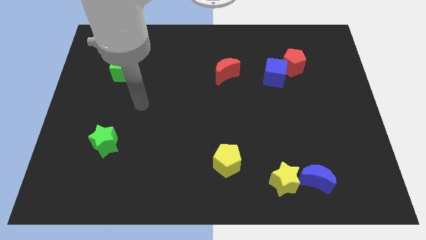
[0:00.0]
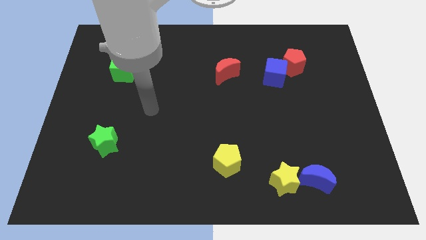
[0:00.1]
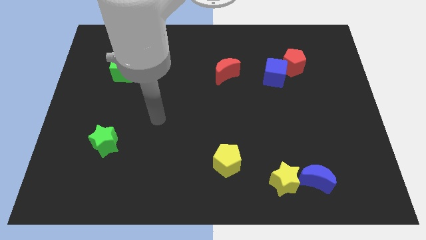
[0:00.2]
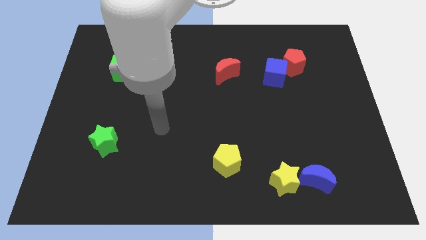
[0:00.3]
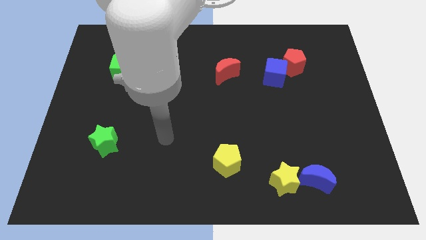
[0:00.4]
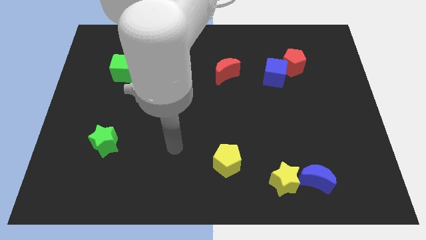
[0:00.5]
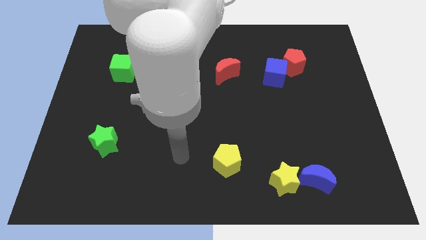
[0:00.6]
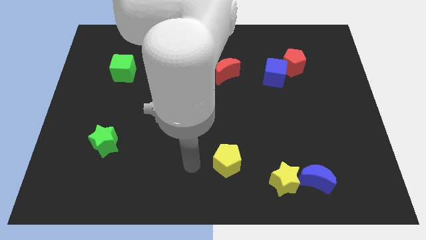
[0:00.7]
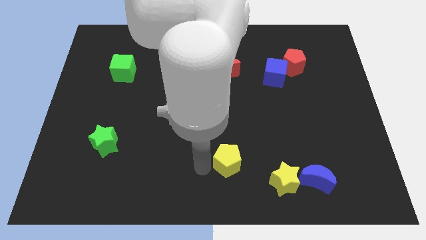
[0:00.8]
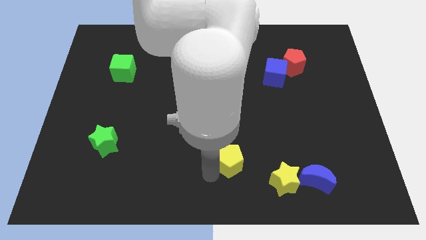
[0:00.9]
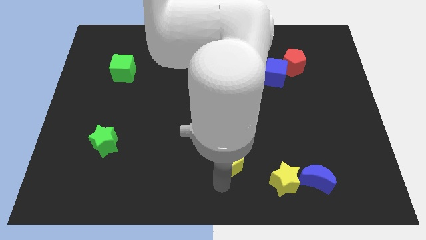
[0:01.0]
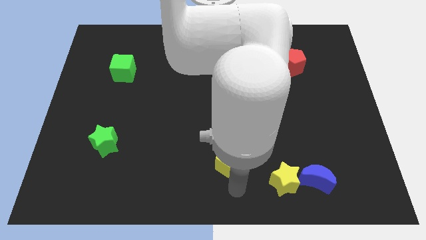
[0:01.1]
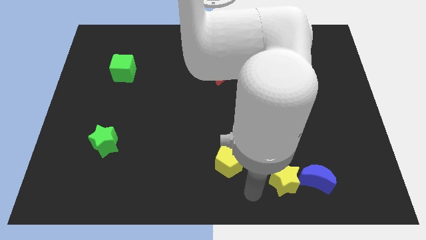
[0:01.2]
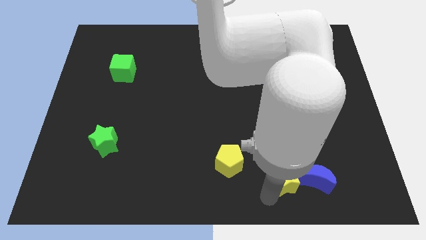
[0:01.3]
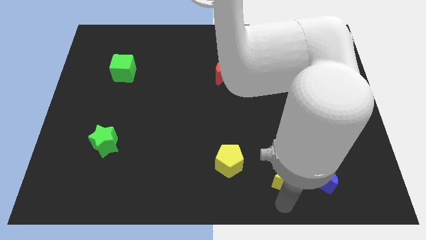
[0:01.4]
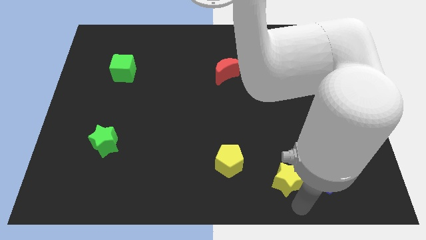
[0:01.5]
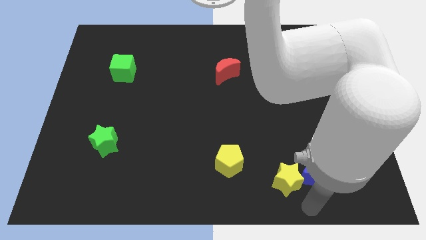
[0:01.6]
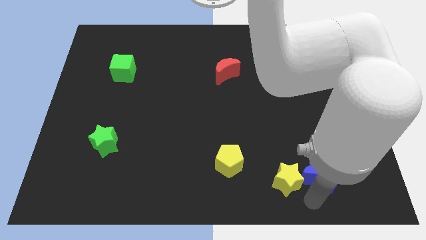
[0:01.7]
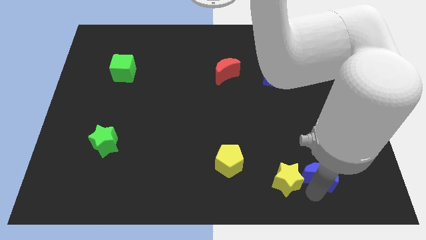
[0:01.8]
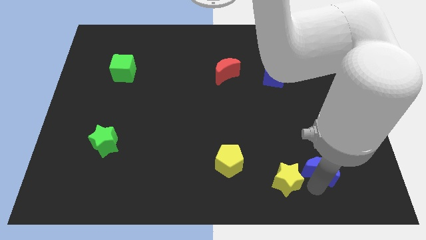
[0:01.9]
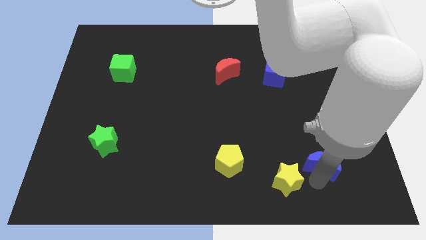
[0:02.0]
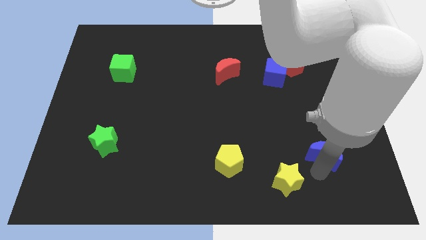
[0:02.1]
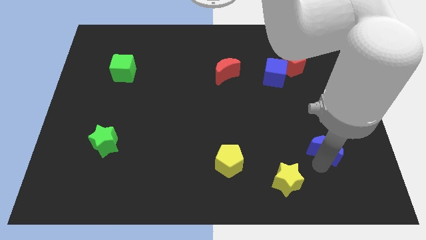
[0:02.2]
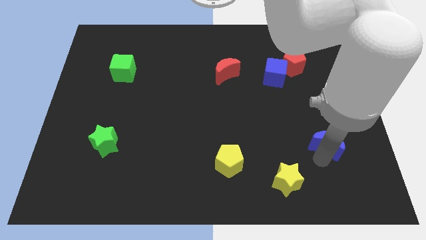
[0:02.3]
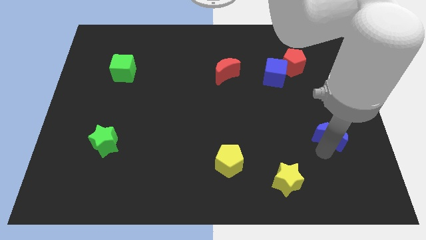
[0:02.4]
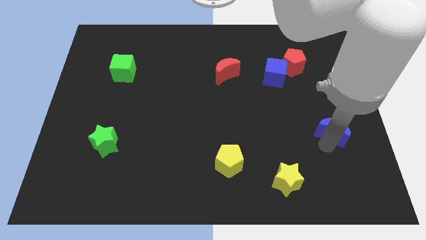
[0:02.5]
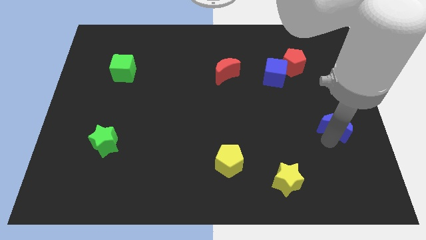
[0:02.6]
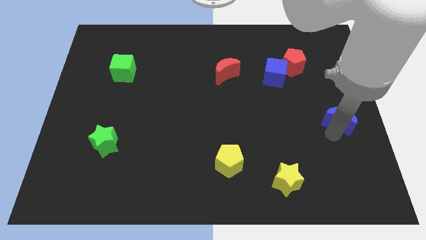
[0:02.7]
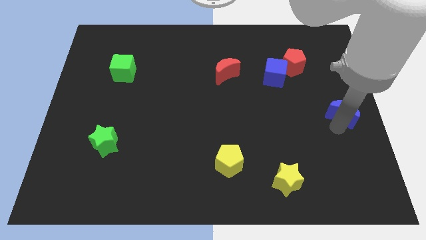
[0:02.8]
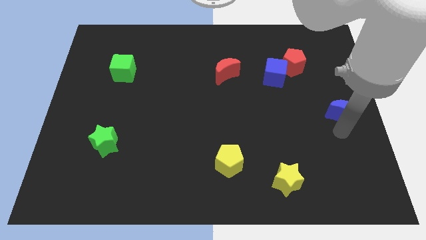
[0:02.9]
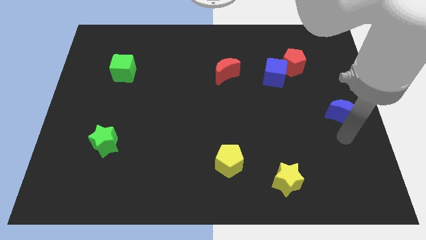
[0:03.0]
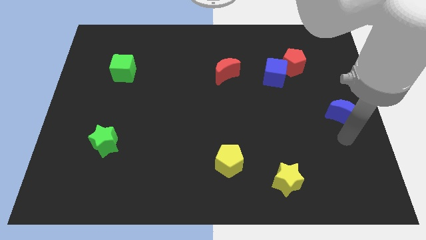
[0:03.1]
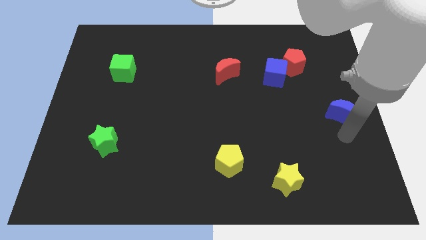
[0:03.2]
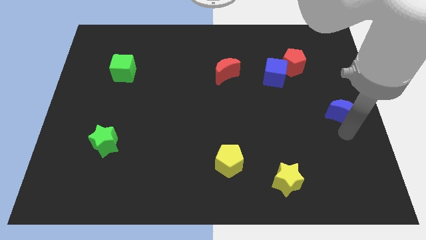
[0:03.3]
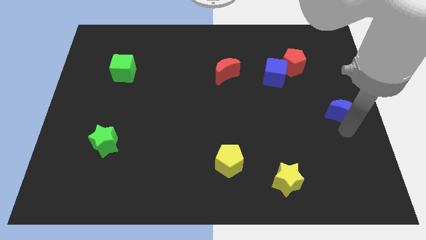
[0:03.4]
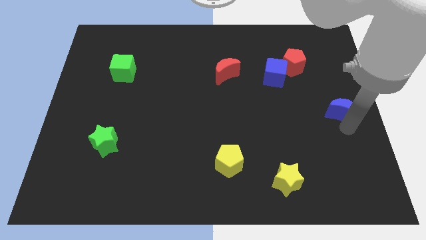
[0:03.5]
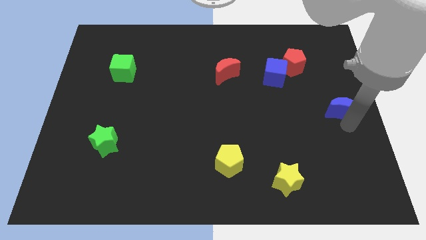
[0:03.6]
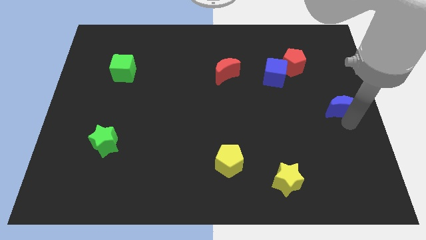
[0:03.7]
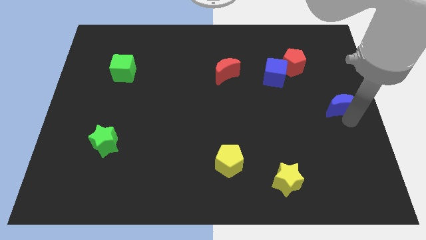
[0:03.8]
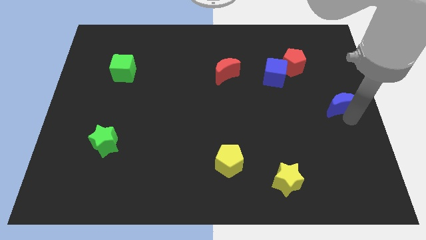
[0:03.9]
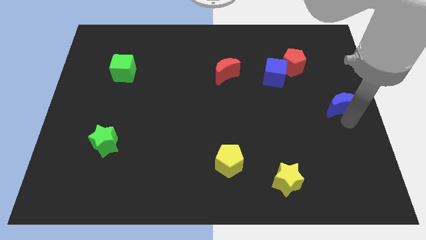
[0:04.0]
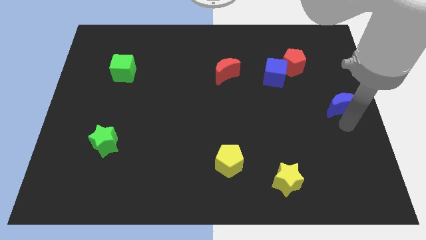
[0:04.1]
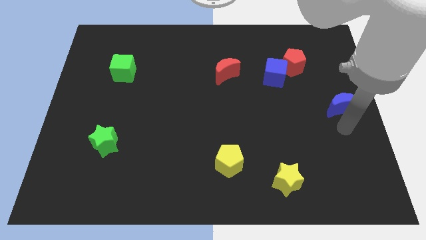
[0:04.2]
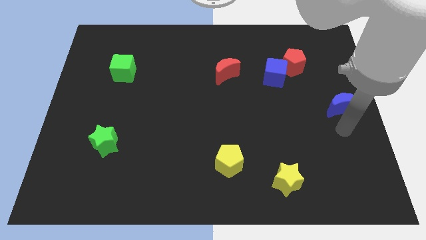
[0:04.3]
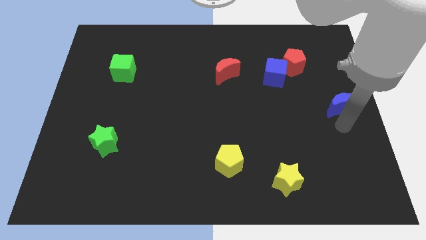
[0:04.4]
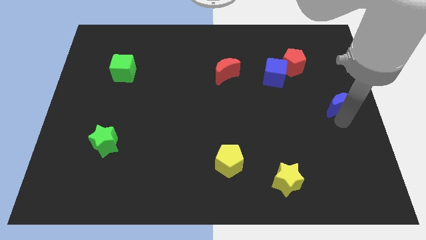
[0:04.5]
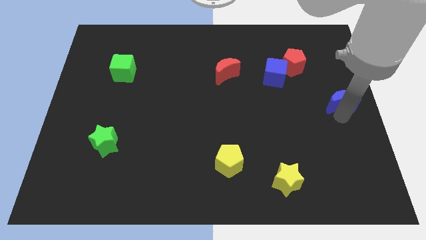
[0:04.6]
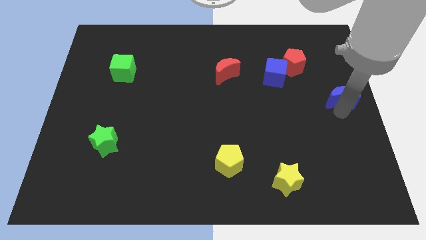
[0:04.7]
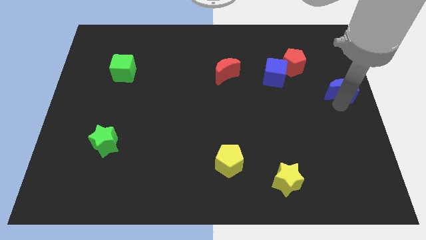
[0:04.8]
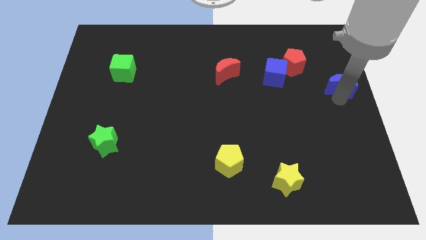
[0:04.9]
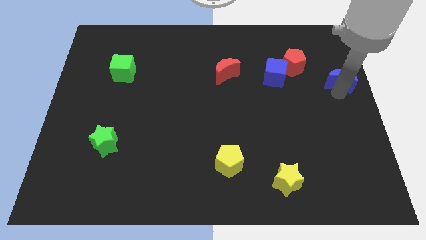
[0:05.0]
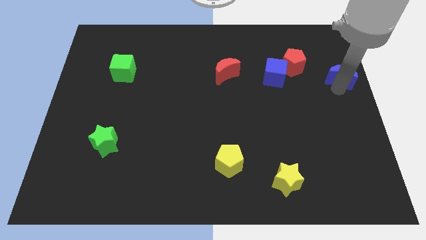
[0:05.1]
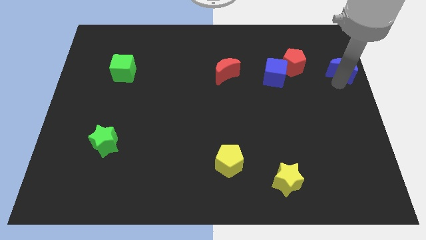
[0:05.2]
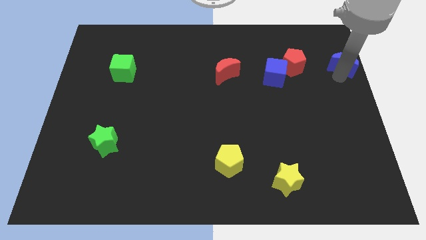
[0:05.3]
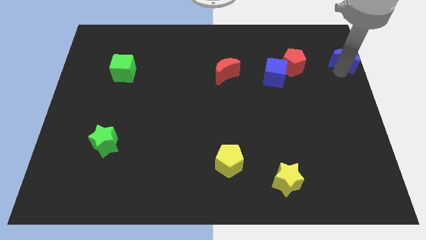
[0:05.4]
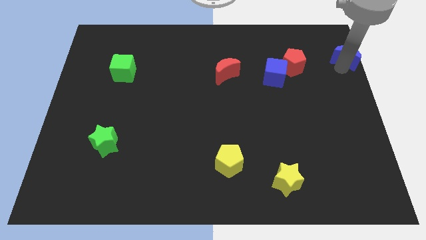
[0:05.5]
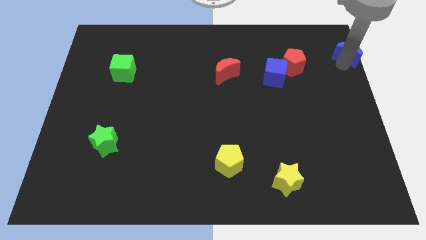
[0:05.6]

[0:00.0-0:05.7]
push the blue moon to the top right of the board

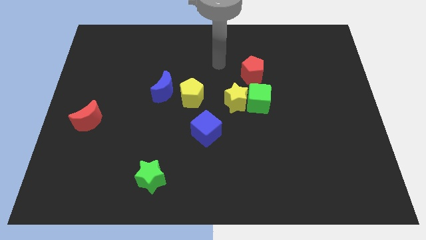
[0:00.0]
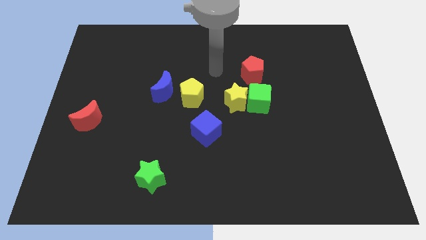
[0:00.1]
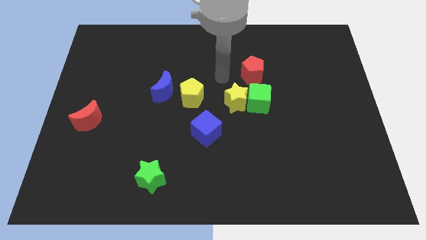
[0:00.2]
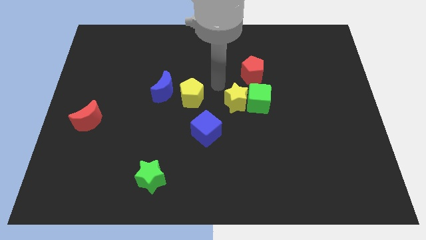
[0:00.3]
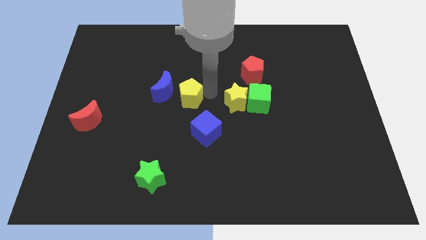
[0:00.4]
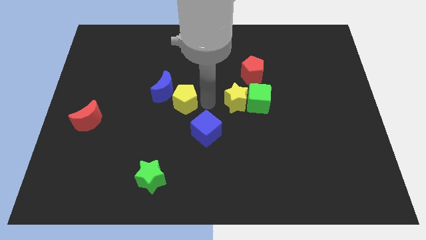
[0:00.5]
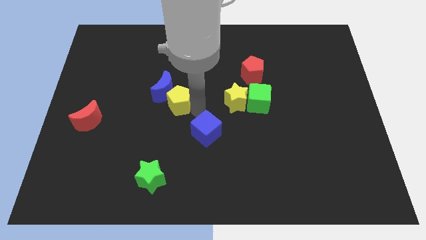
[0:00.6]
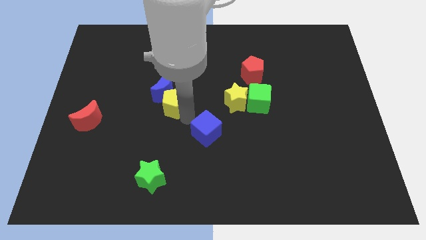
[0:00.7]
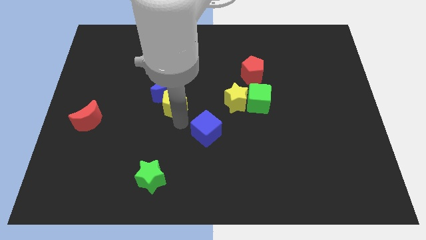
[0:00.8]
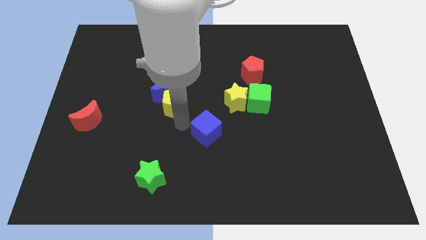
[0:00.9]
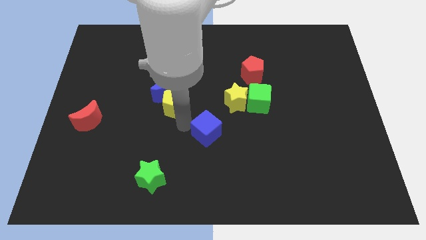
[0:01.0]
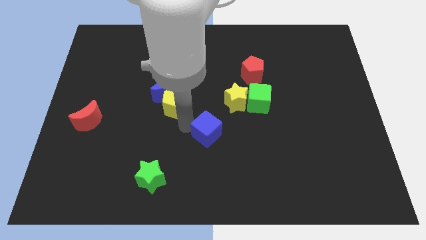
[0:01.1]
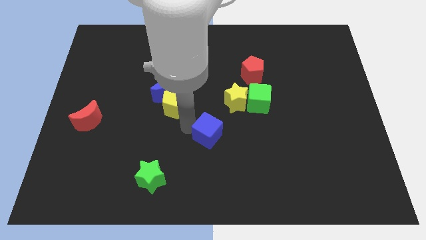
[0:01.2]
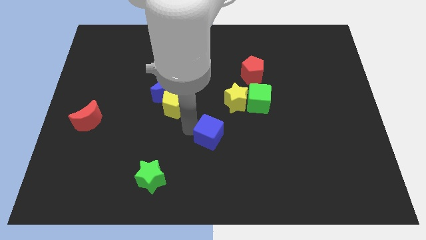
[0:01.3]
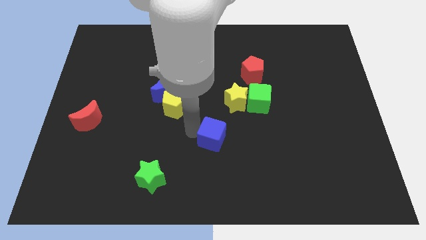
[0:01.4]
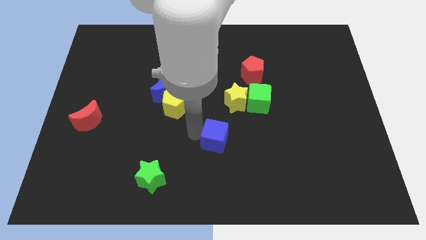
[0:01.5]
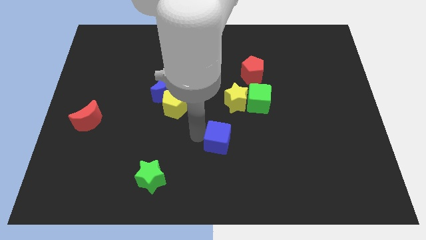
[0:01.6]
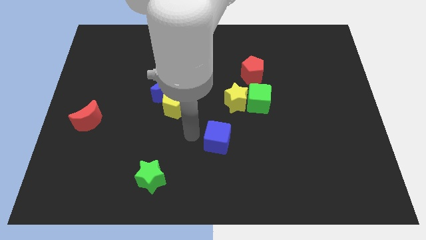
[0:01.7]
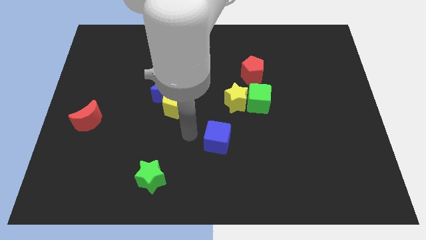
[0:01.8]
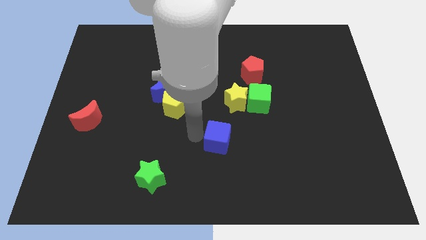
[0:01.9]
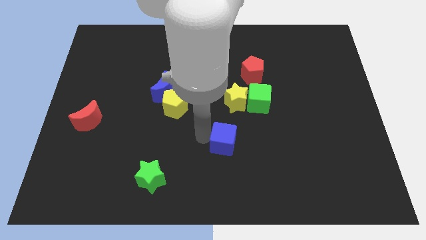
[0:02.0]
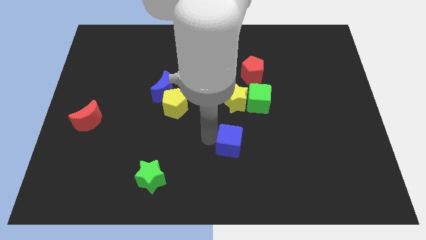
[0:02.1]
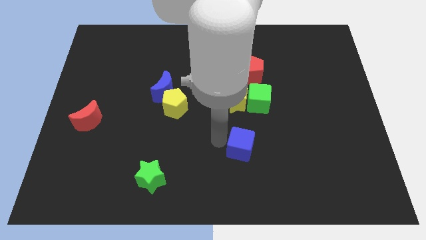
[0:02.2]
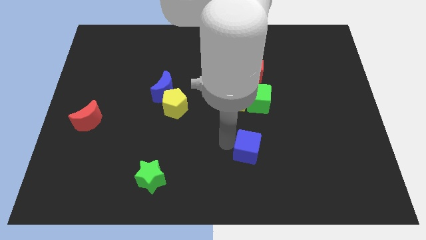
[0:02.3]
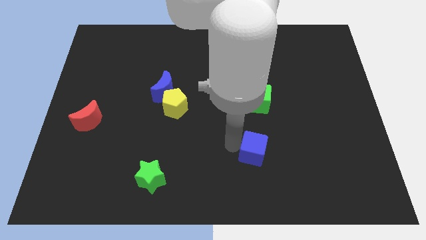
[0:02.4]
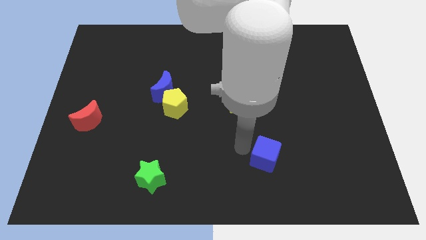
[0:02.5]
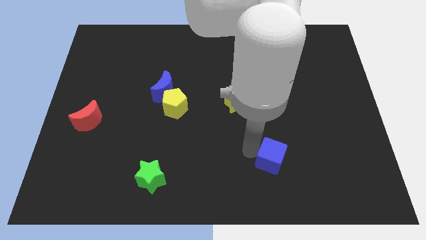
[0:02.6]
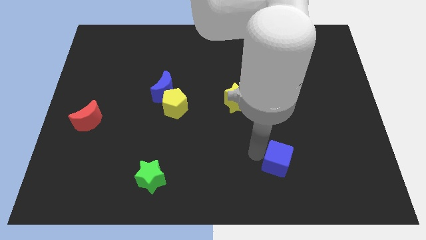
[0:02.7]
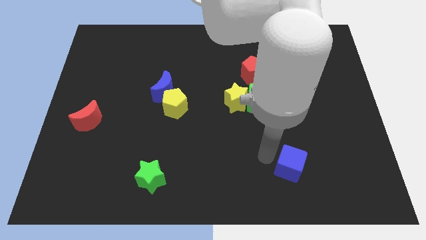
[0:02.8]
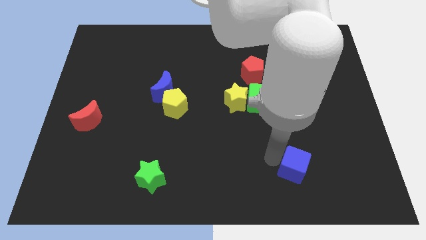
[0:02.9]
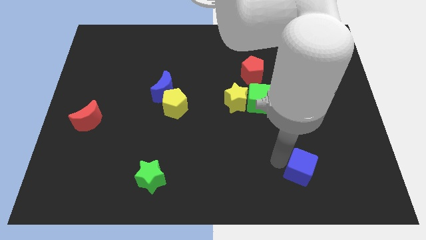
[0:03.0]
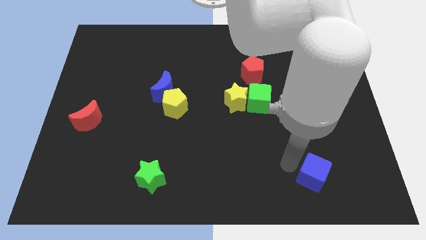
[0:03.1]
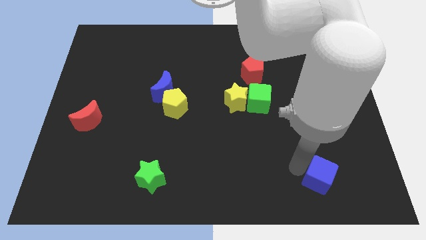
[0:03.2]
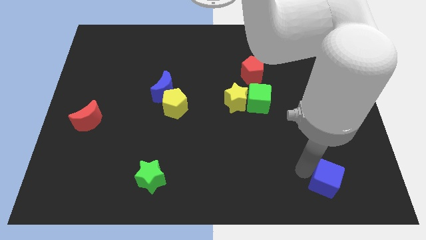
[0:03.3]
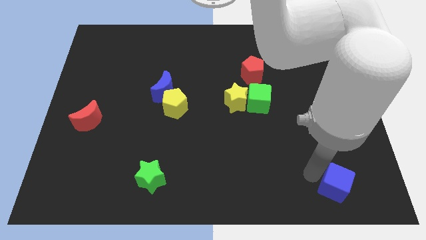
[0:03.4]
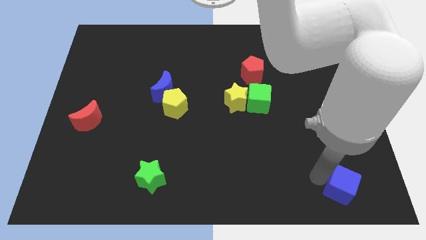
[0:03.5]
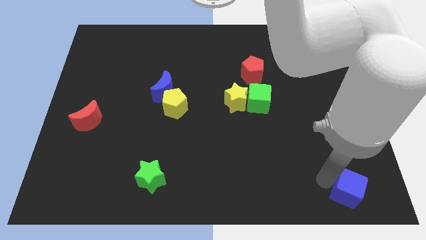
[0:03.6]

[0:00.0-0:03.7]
push the blue cube to the lower right corner
